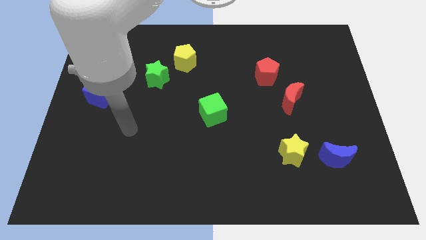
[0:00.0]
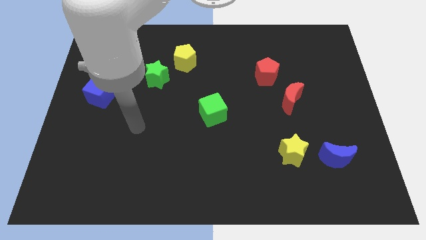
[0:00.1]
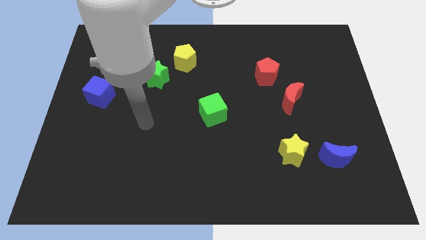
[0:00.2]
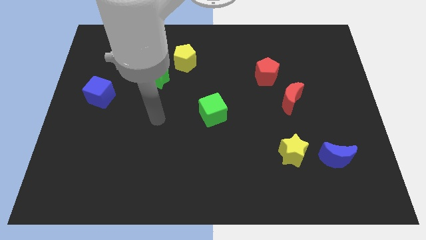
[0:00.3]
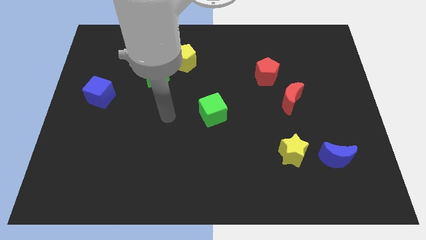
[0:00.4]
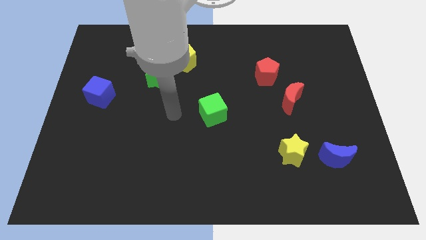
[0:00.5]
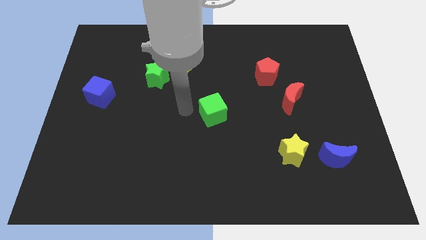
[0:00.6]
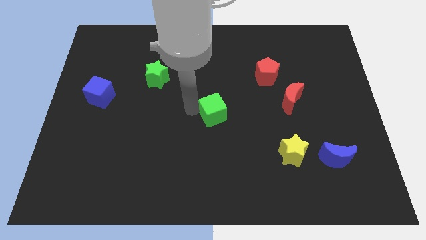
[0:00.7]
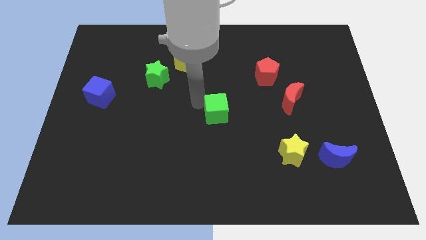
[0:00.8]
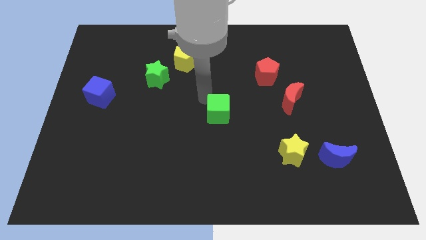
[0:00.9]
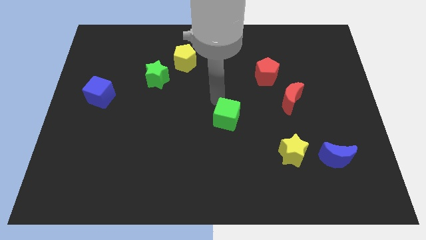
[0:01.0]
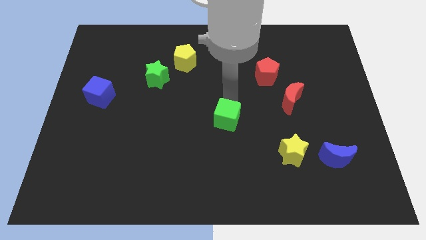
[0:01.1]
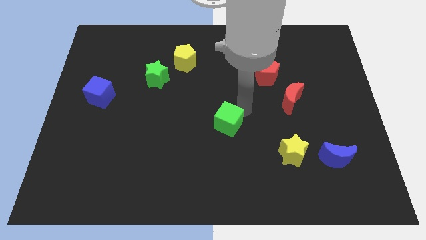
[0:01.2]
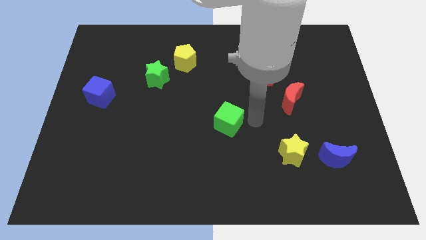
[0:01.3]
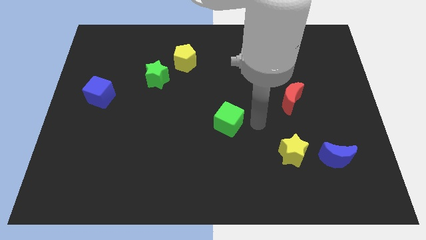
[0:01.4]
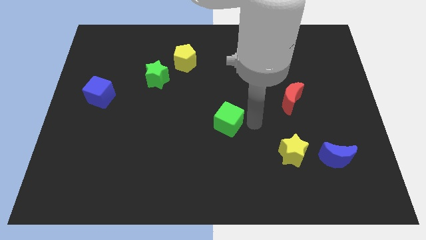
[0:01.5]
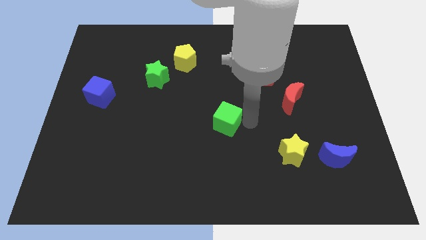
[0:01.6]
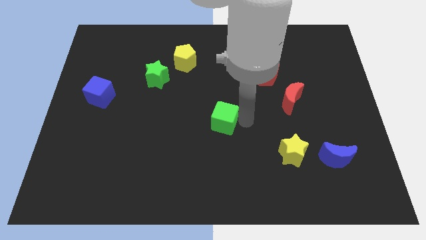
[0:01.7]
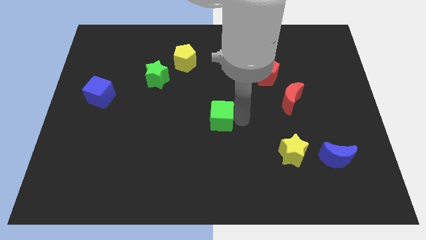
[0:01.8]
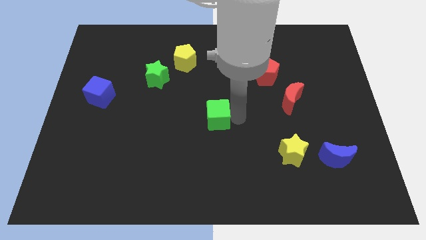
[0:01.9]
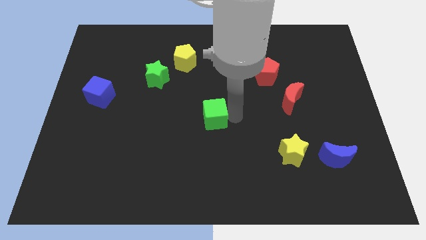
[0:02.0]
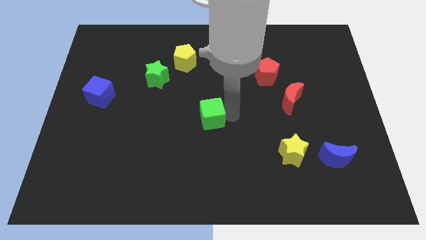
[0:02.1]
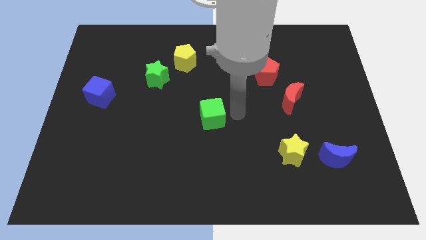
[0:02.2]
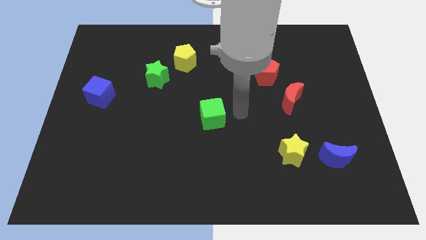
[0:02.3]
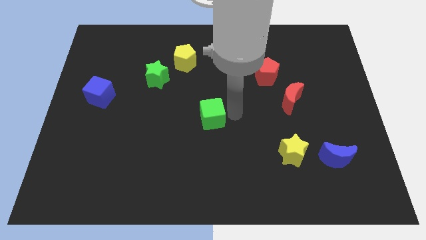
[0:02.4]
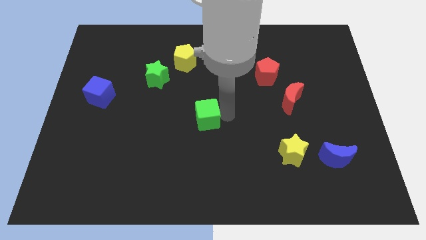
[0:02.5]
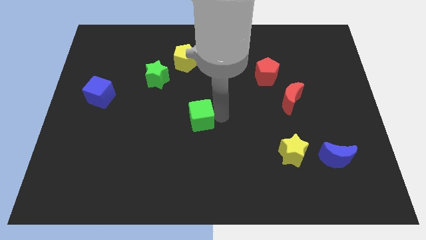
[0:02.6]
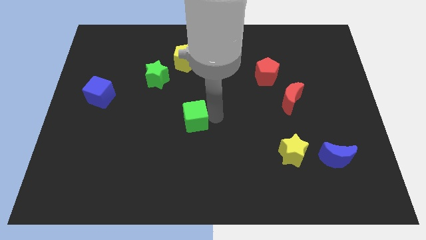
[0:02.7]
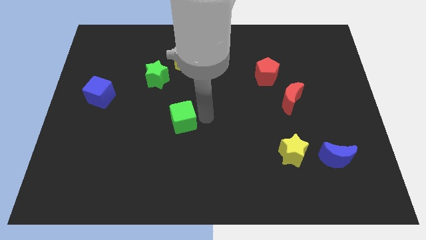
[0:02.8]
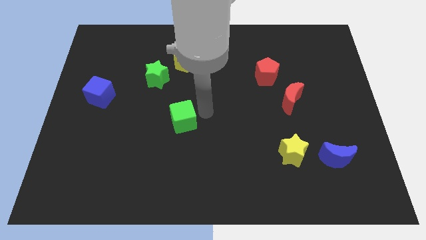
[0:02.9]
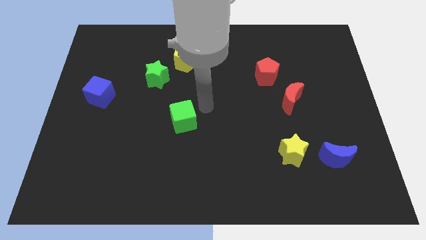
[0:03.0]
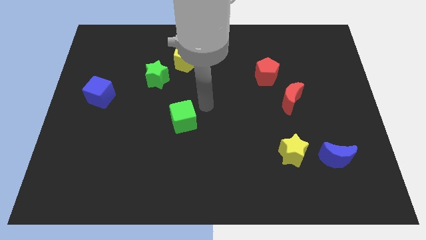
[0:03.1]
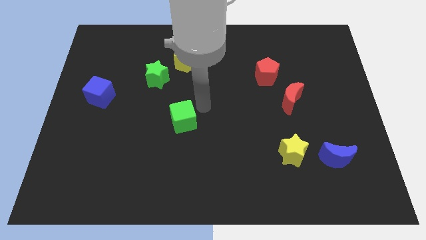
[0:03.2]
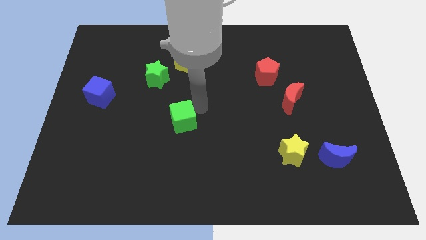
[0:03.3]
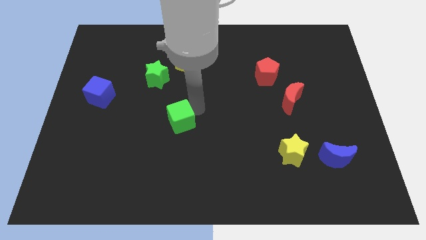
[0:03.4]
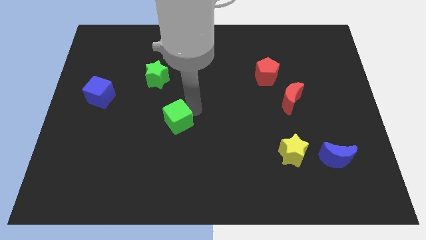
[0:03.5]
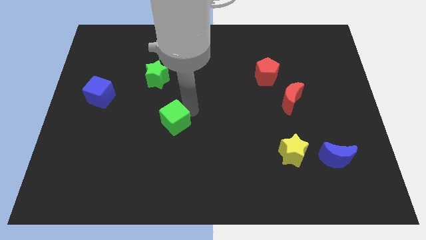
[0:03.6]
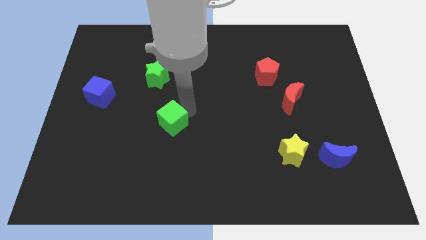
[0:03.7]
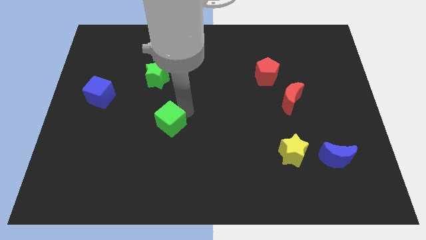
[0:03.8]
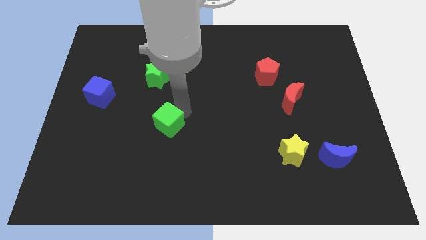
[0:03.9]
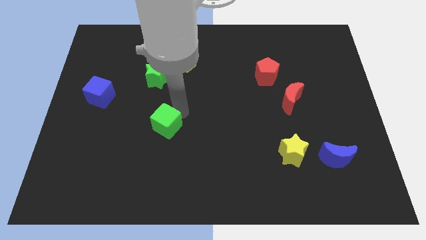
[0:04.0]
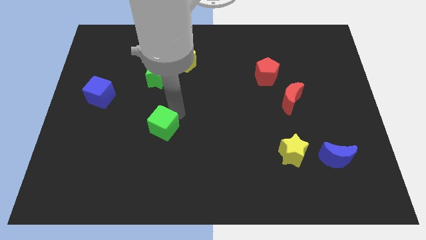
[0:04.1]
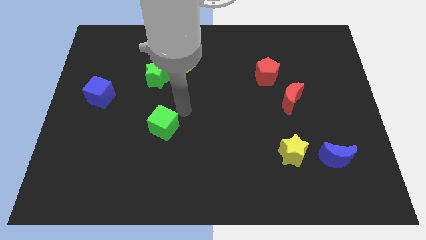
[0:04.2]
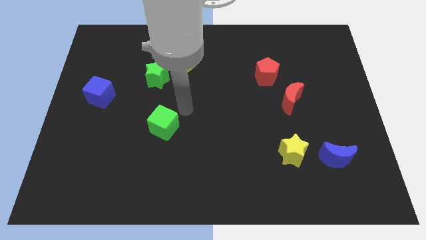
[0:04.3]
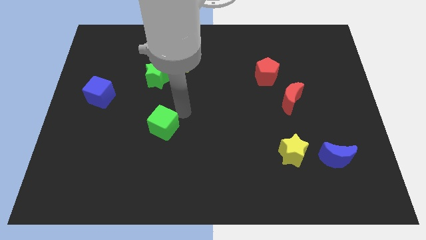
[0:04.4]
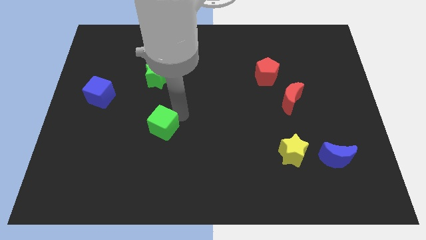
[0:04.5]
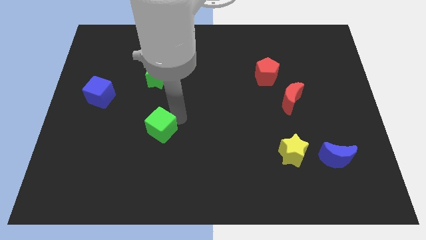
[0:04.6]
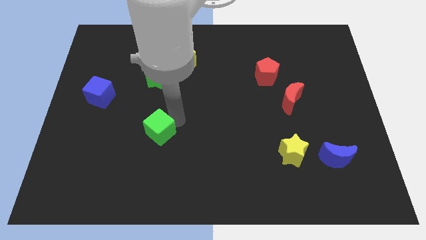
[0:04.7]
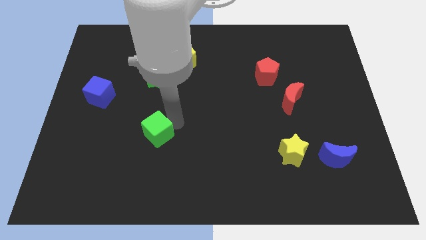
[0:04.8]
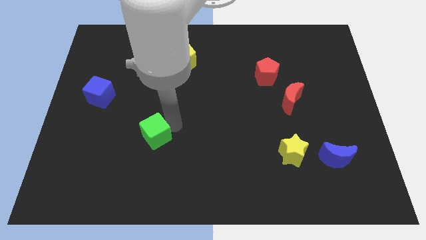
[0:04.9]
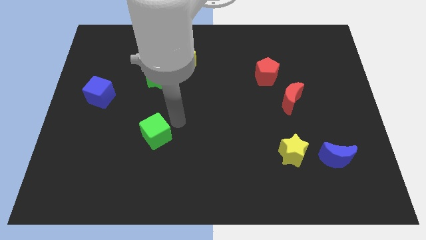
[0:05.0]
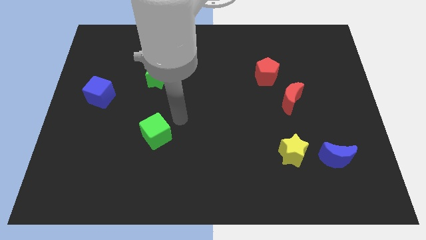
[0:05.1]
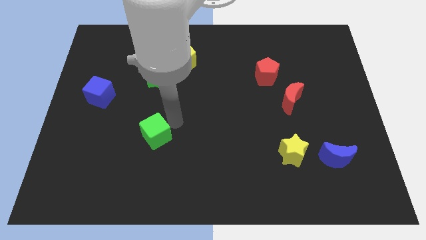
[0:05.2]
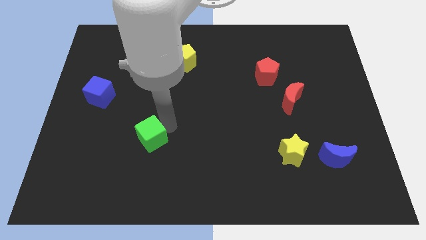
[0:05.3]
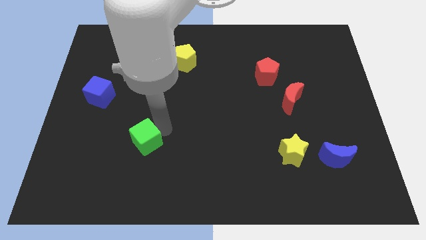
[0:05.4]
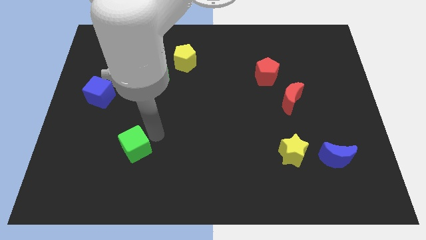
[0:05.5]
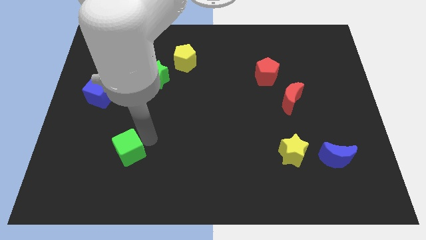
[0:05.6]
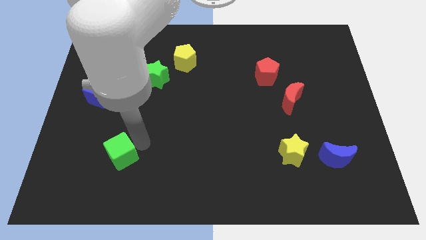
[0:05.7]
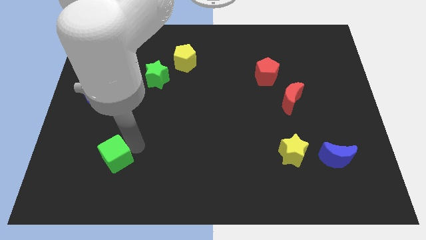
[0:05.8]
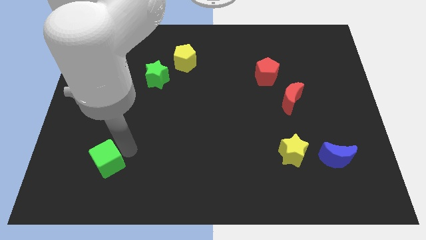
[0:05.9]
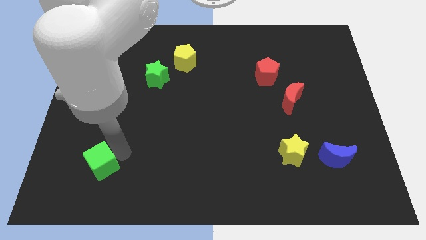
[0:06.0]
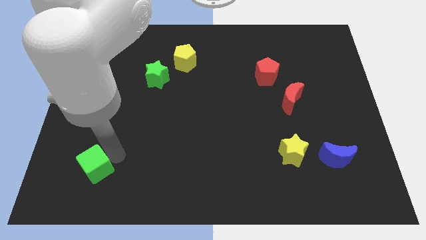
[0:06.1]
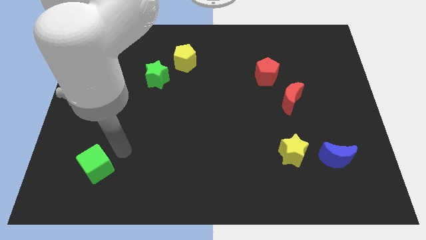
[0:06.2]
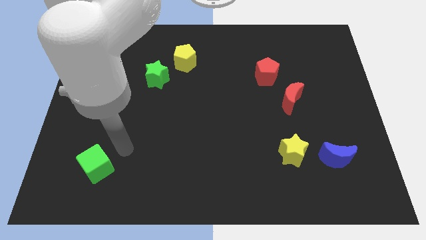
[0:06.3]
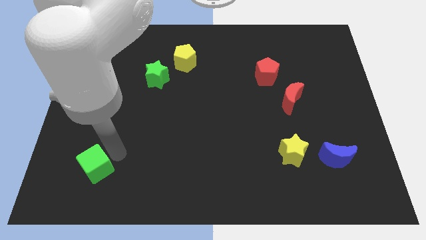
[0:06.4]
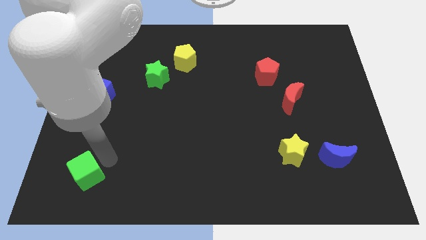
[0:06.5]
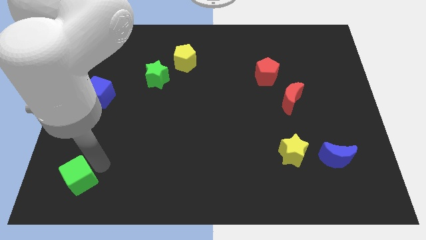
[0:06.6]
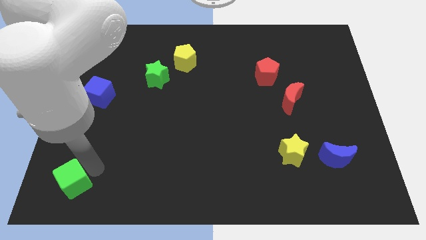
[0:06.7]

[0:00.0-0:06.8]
push the green cube to the bottom left of the board
